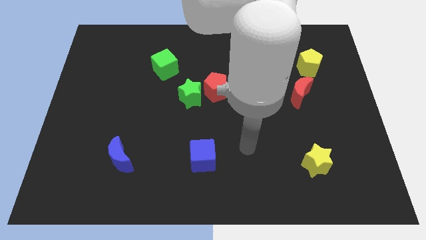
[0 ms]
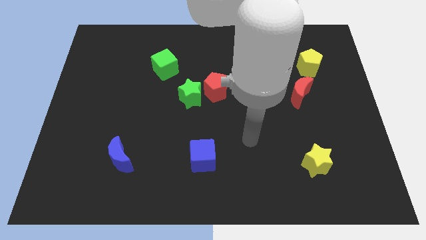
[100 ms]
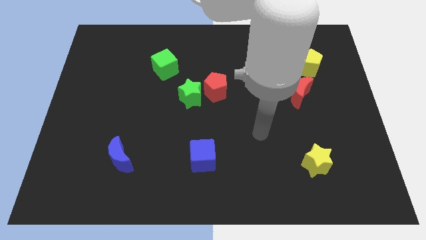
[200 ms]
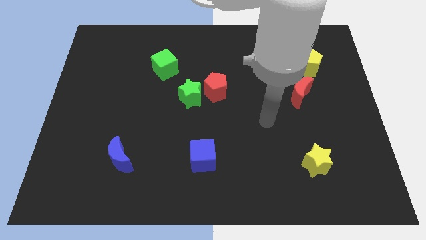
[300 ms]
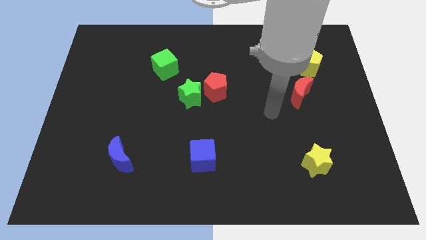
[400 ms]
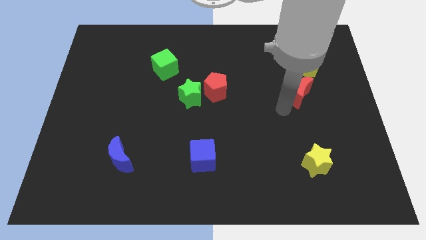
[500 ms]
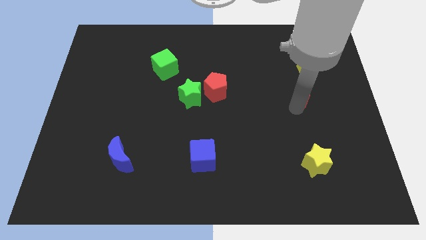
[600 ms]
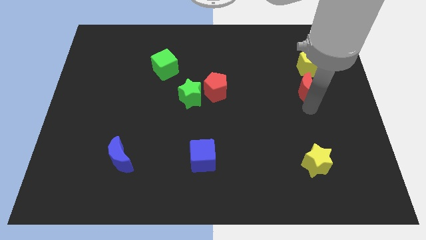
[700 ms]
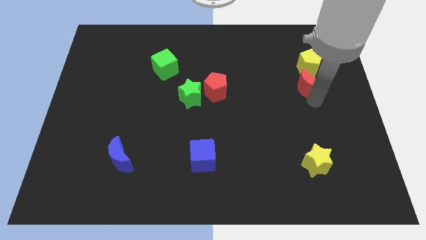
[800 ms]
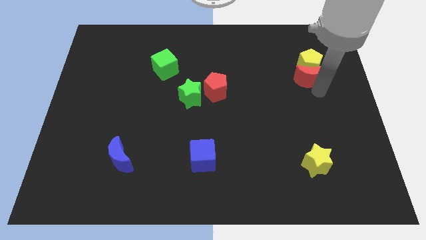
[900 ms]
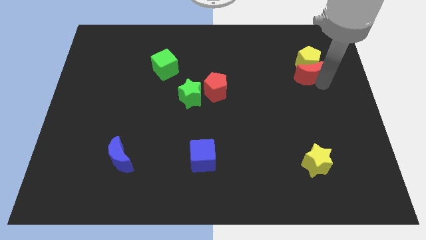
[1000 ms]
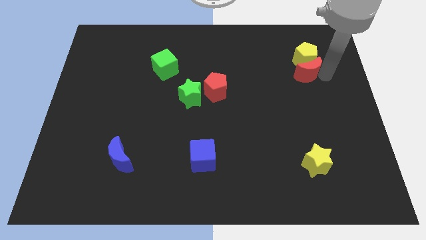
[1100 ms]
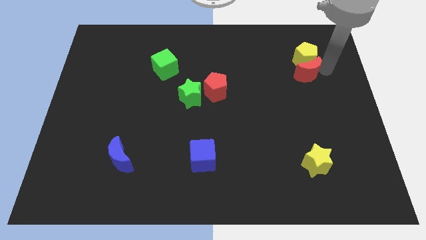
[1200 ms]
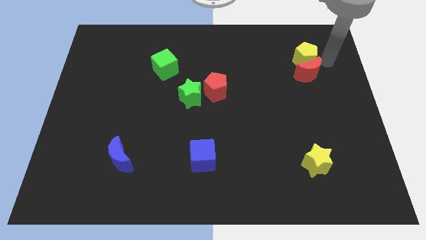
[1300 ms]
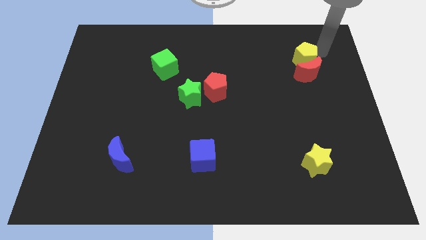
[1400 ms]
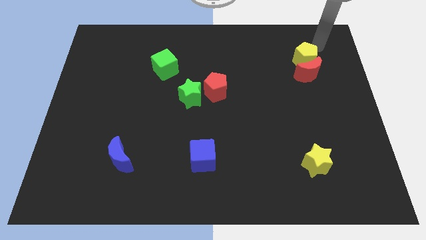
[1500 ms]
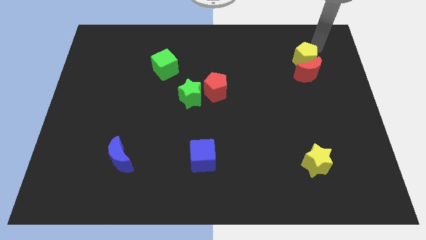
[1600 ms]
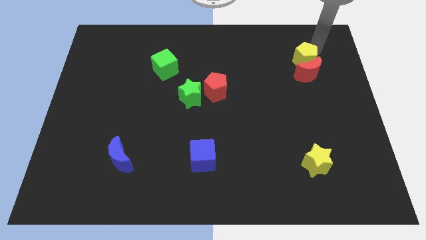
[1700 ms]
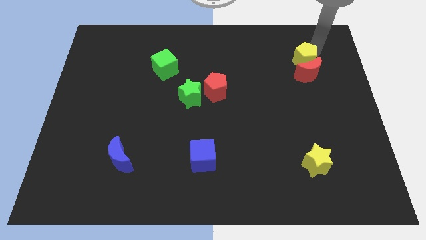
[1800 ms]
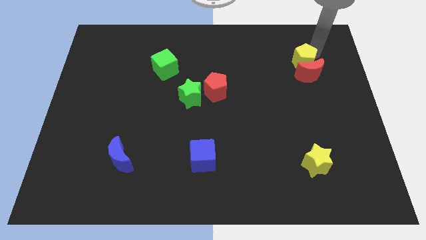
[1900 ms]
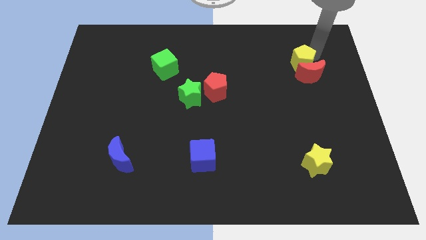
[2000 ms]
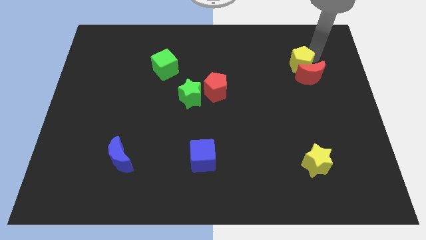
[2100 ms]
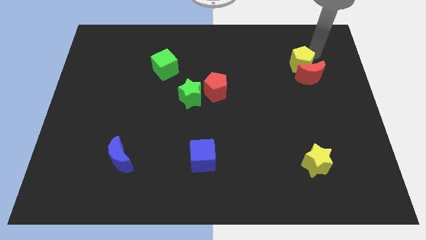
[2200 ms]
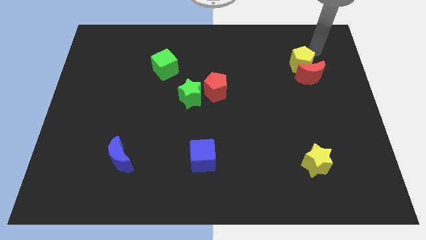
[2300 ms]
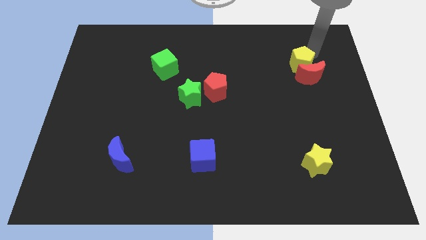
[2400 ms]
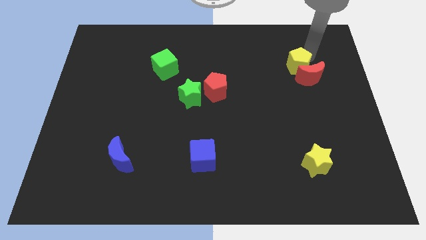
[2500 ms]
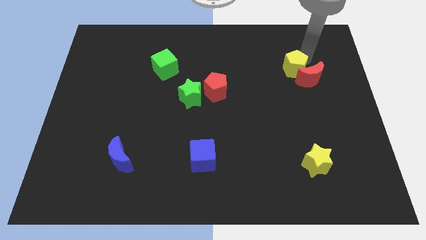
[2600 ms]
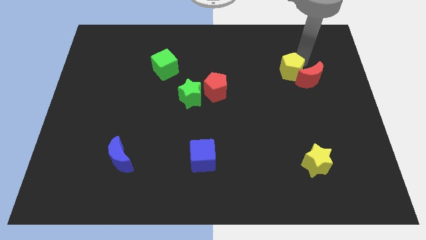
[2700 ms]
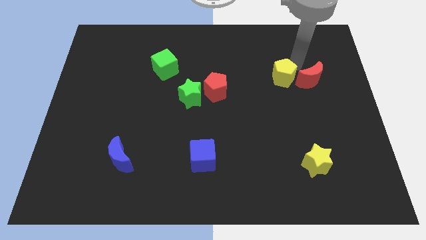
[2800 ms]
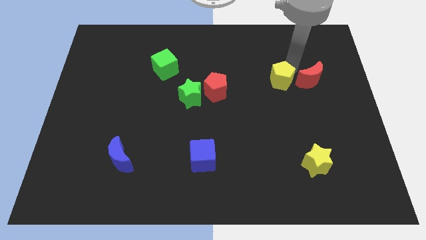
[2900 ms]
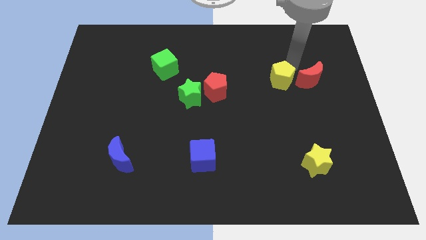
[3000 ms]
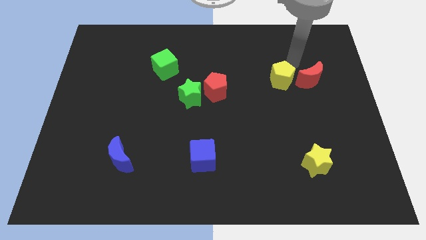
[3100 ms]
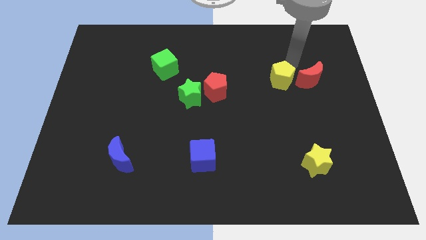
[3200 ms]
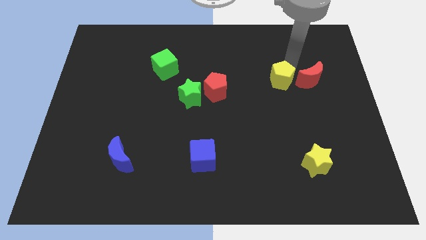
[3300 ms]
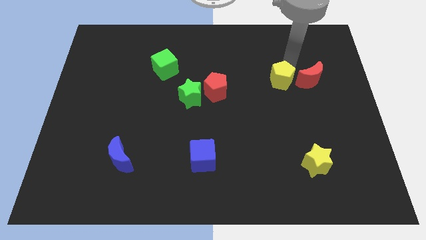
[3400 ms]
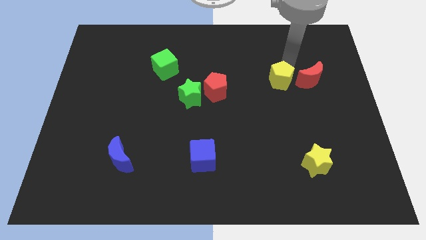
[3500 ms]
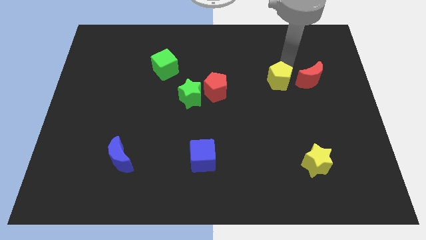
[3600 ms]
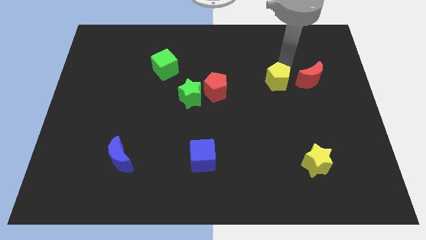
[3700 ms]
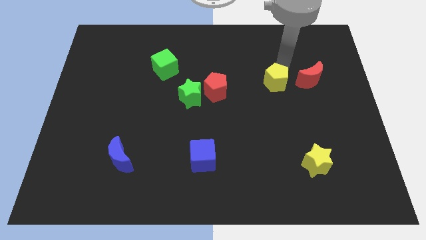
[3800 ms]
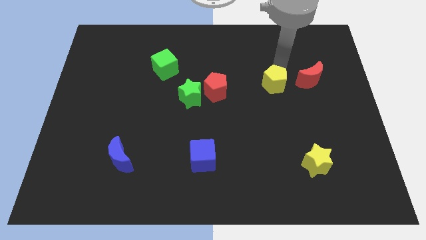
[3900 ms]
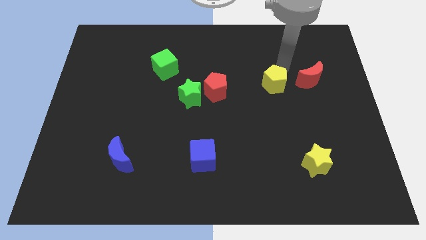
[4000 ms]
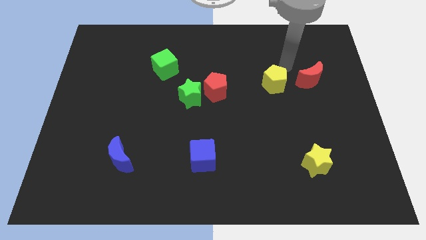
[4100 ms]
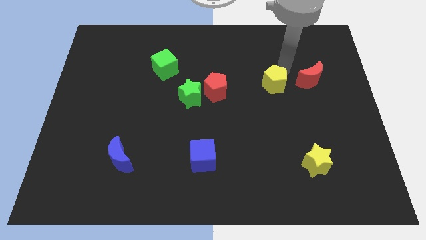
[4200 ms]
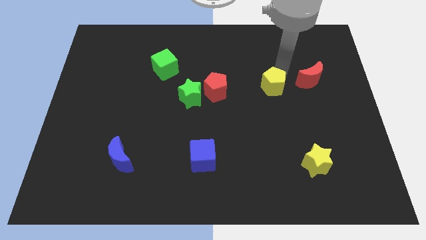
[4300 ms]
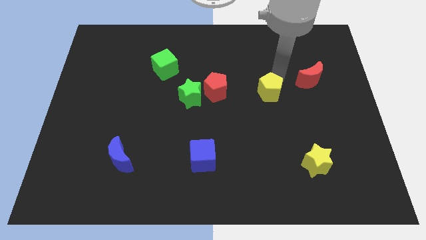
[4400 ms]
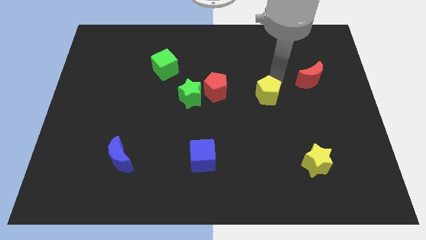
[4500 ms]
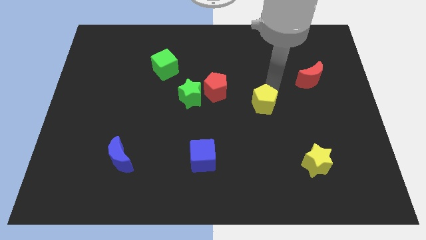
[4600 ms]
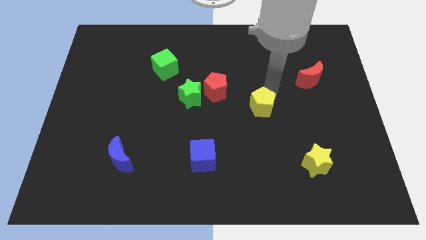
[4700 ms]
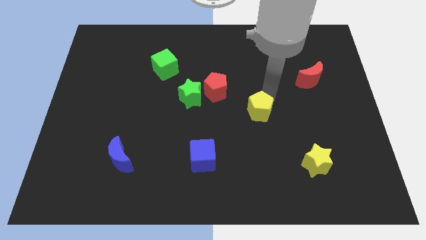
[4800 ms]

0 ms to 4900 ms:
push the yellow pentagon downwards and to the left diagonally

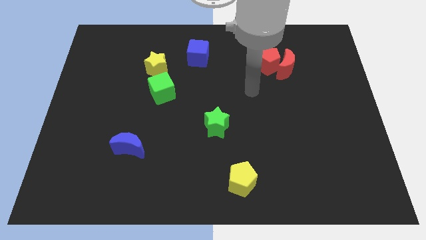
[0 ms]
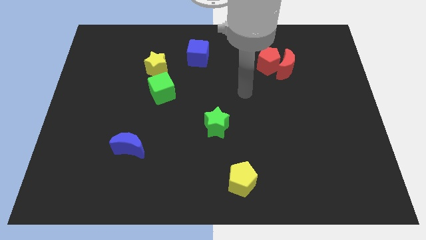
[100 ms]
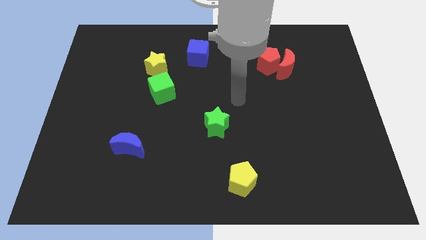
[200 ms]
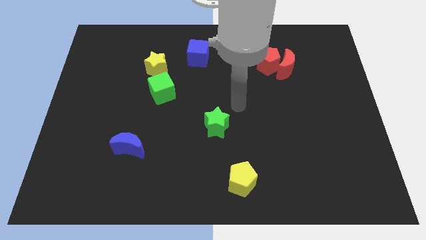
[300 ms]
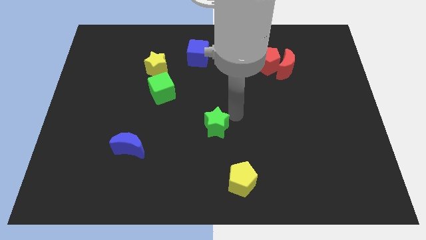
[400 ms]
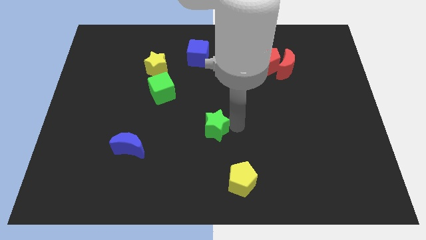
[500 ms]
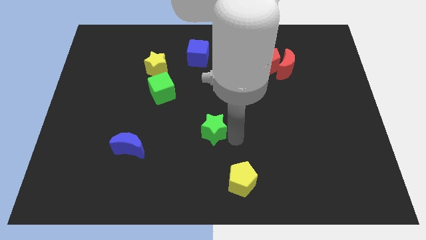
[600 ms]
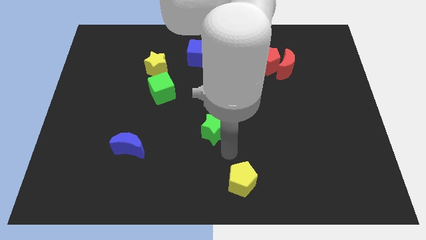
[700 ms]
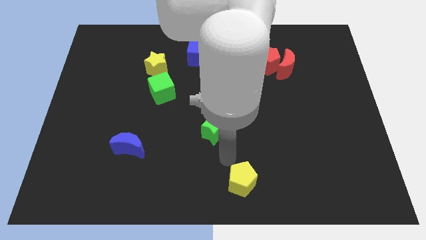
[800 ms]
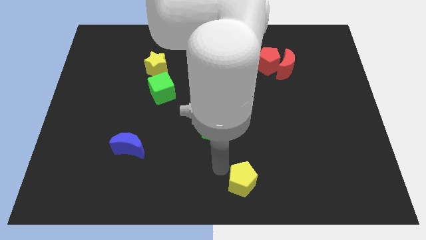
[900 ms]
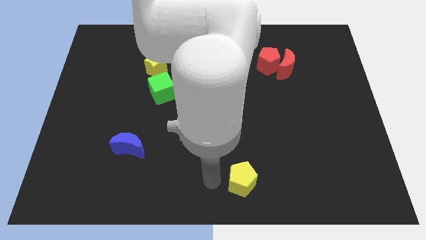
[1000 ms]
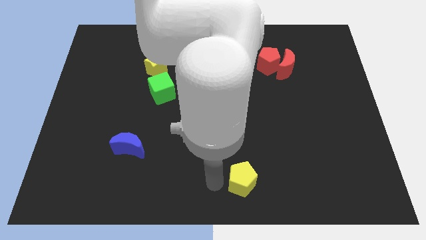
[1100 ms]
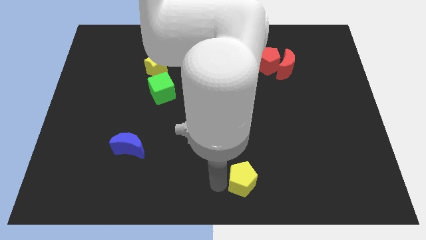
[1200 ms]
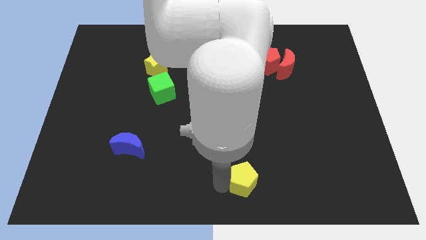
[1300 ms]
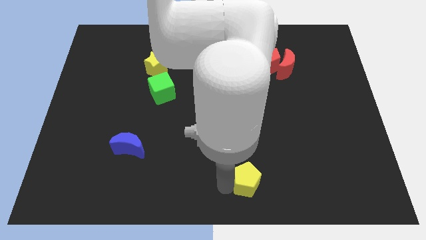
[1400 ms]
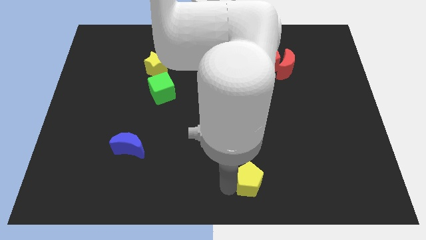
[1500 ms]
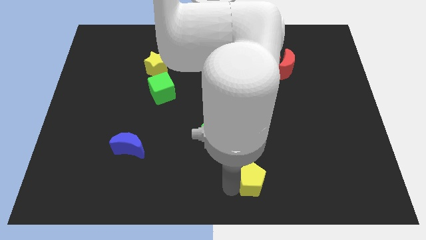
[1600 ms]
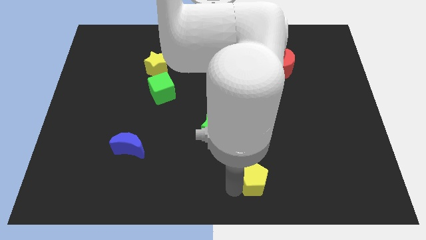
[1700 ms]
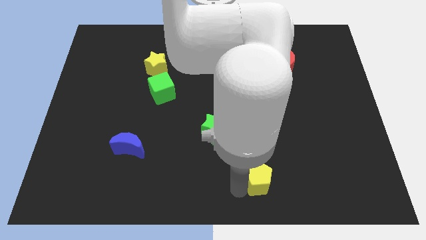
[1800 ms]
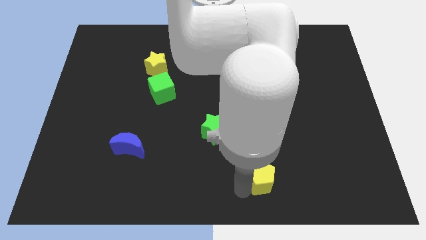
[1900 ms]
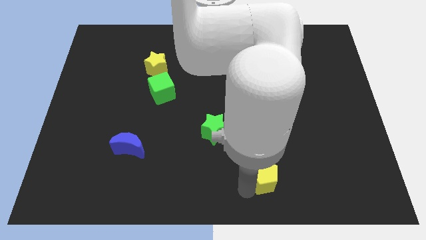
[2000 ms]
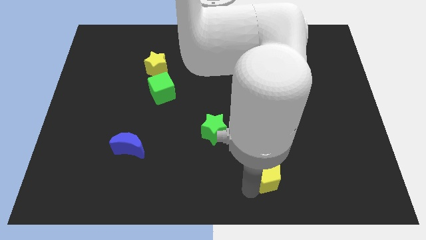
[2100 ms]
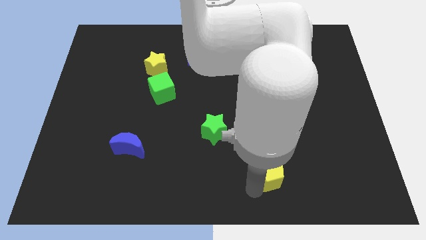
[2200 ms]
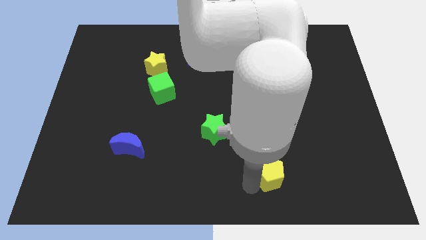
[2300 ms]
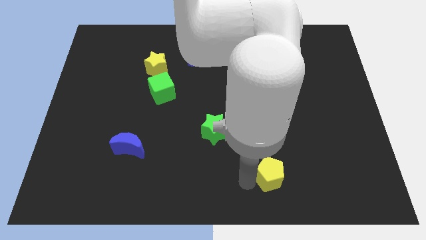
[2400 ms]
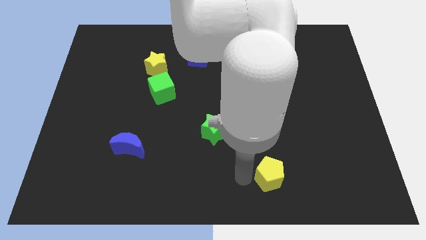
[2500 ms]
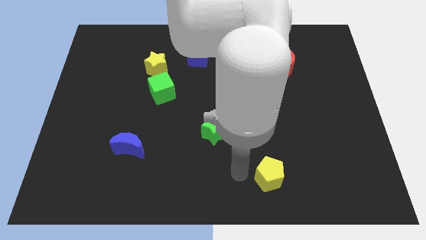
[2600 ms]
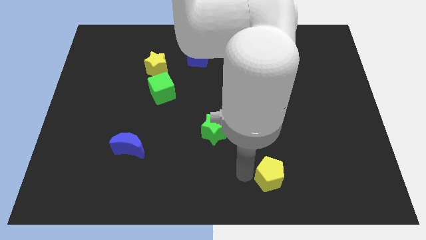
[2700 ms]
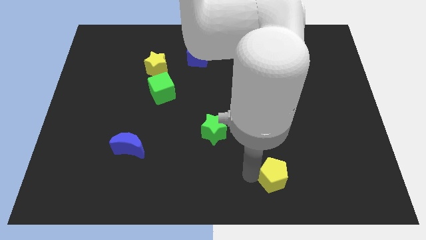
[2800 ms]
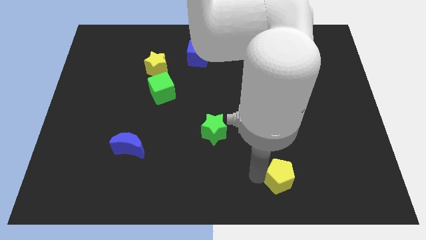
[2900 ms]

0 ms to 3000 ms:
push the yellow pentagon to the right a little
